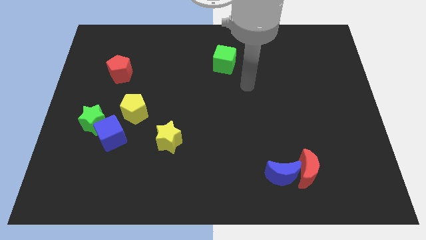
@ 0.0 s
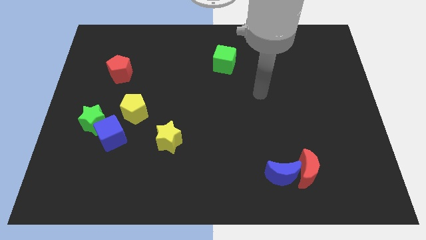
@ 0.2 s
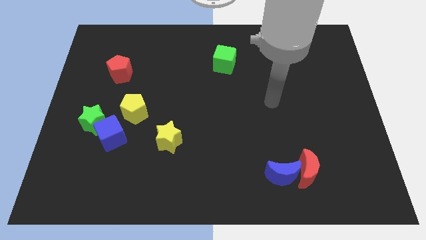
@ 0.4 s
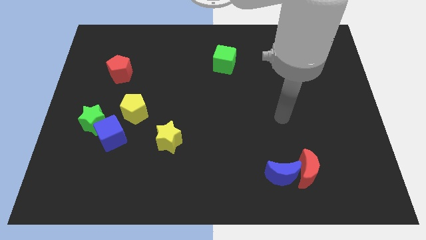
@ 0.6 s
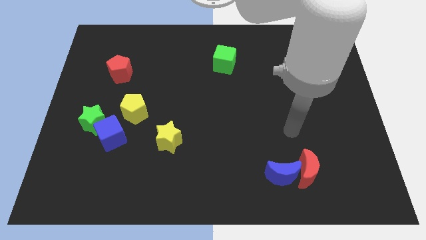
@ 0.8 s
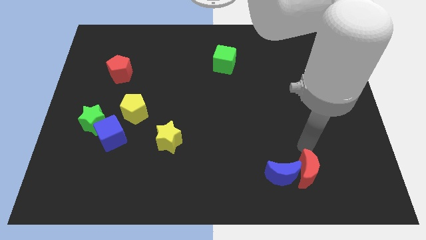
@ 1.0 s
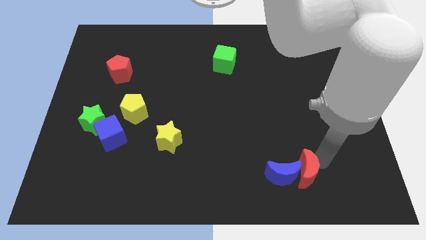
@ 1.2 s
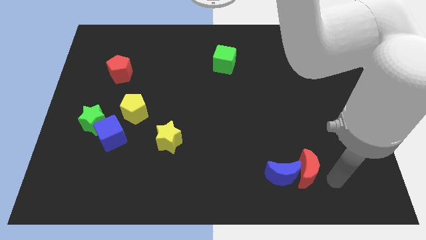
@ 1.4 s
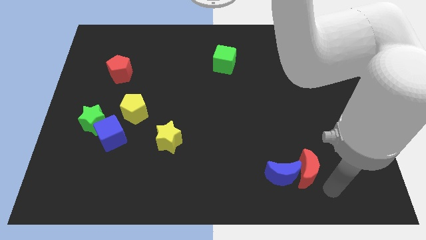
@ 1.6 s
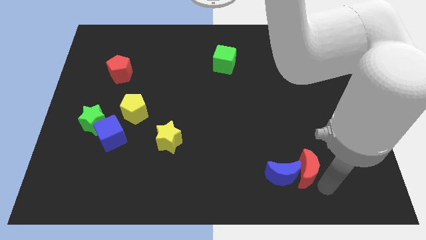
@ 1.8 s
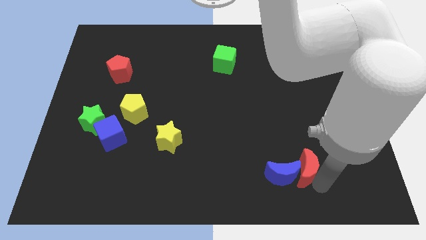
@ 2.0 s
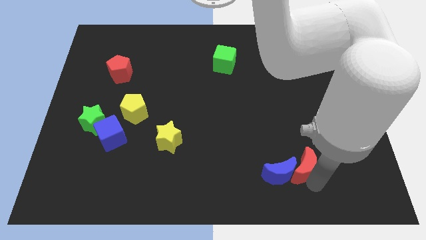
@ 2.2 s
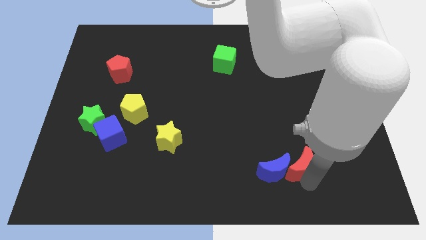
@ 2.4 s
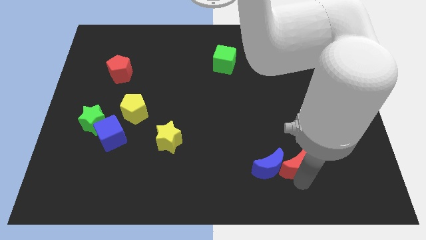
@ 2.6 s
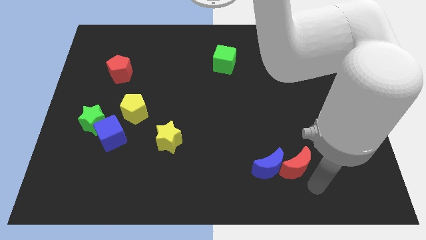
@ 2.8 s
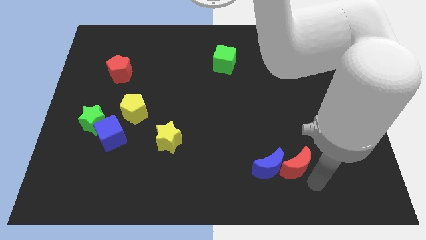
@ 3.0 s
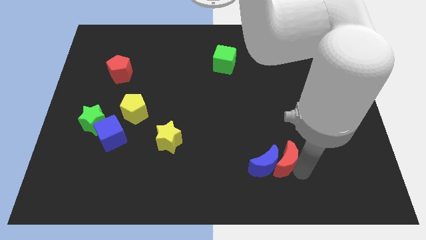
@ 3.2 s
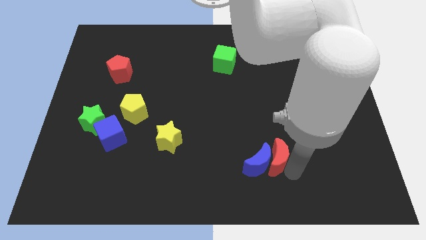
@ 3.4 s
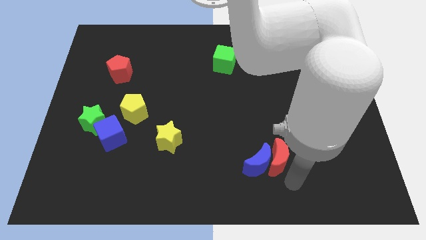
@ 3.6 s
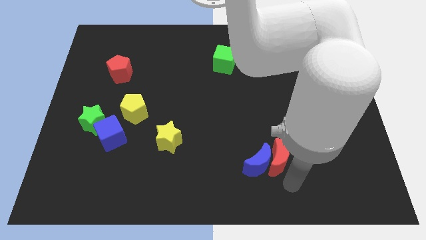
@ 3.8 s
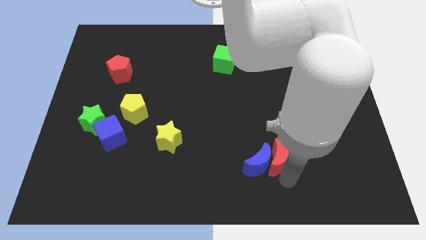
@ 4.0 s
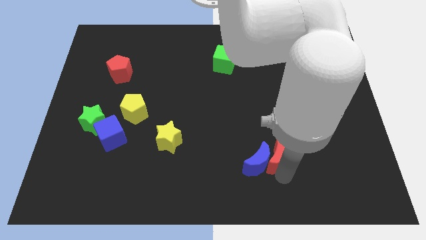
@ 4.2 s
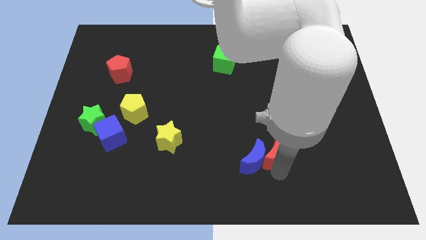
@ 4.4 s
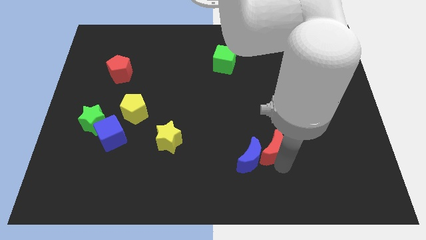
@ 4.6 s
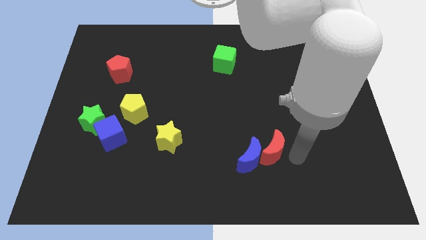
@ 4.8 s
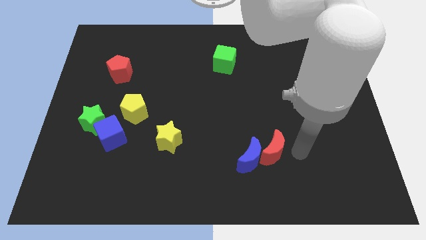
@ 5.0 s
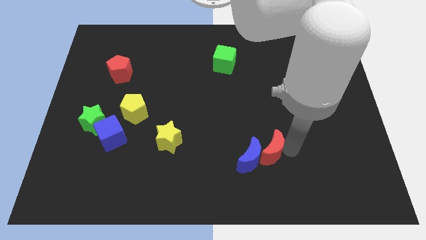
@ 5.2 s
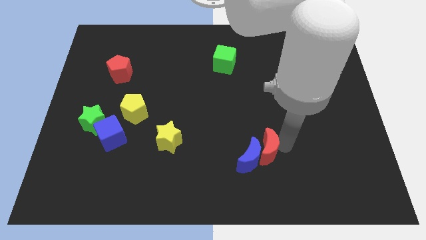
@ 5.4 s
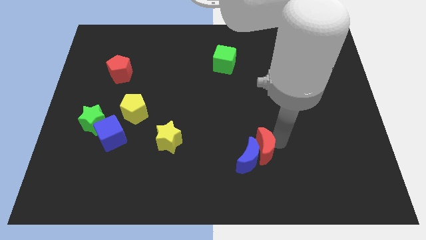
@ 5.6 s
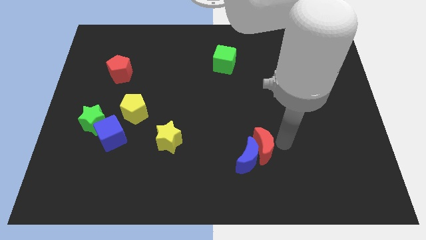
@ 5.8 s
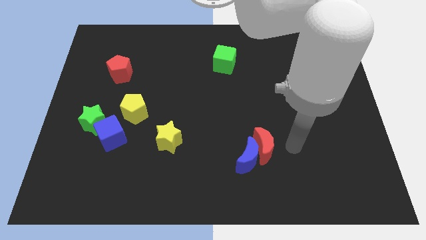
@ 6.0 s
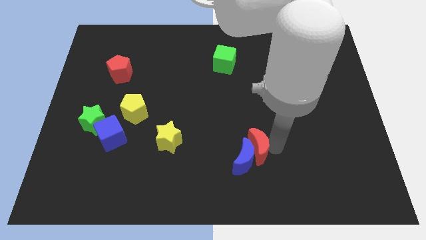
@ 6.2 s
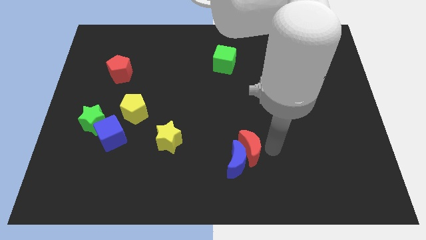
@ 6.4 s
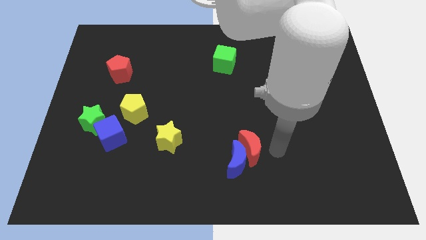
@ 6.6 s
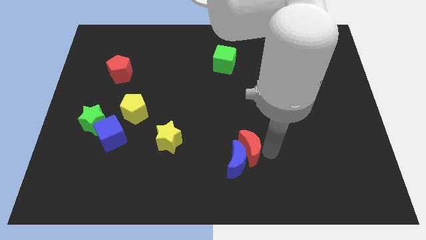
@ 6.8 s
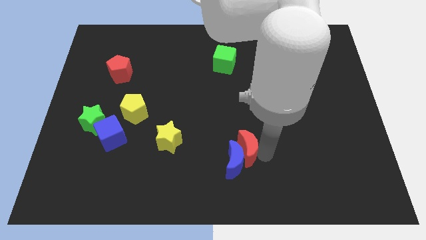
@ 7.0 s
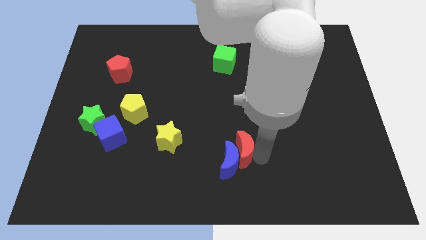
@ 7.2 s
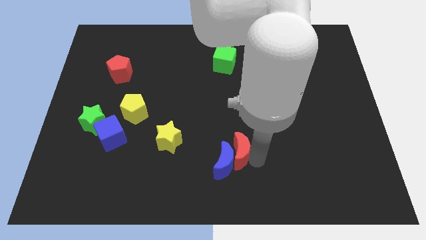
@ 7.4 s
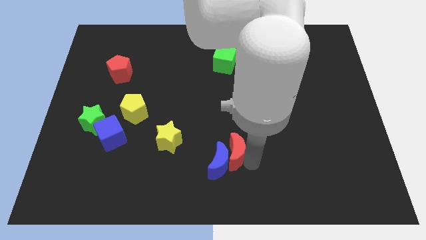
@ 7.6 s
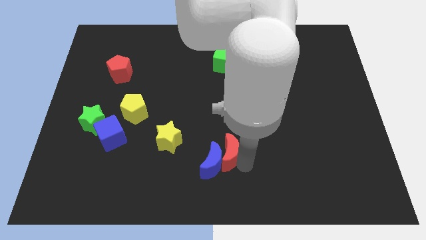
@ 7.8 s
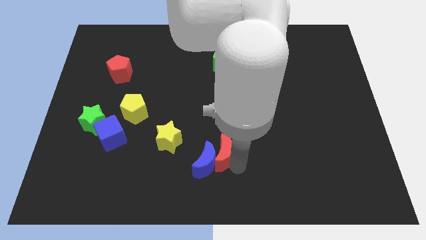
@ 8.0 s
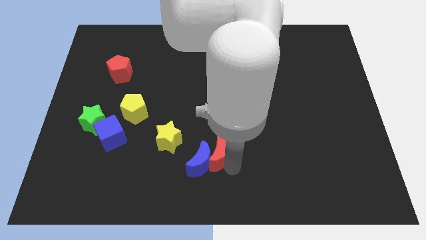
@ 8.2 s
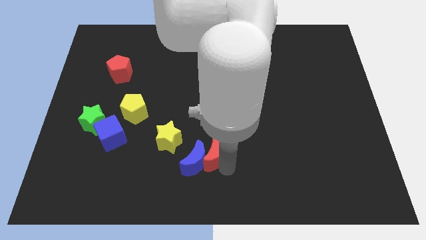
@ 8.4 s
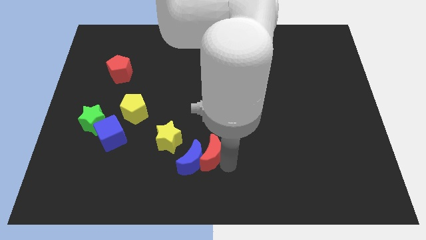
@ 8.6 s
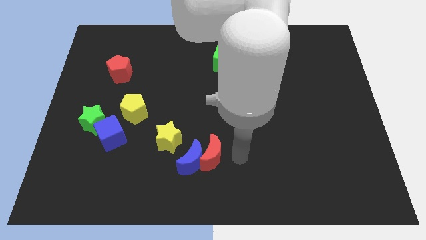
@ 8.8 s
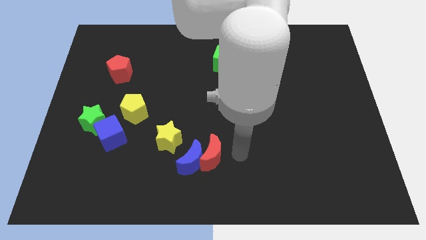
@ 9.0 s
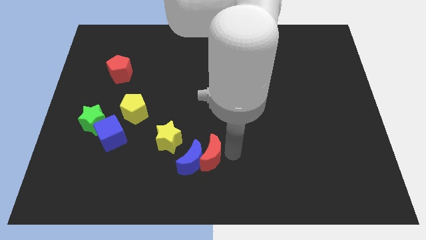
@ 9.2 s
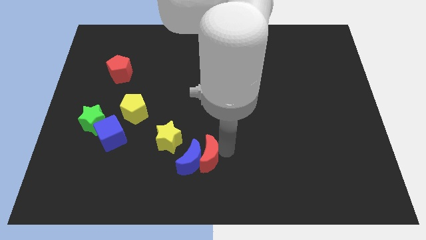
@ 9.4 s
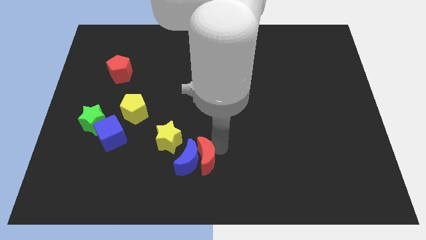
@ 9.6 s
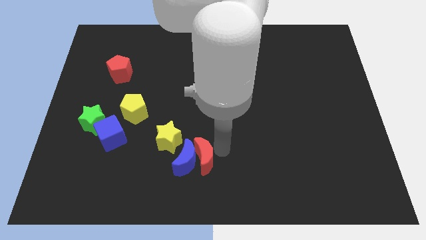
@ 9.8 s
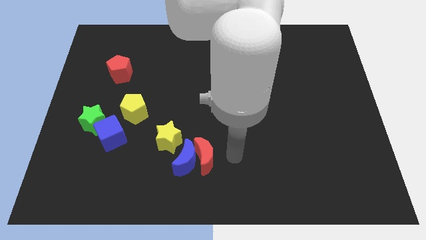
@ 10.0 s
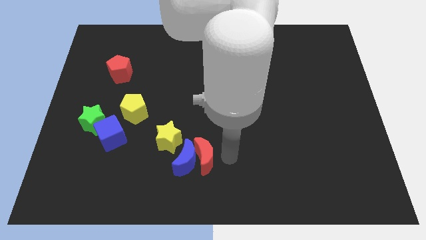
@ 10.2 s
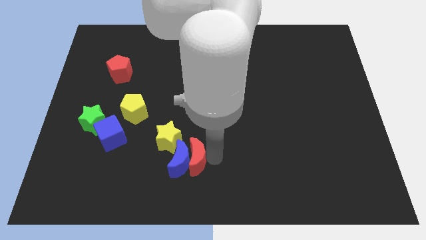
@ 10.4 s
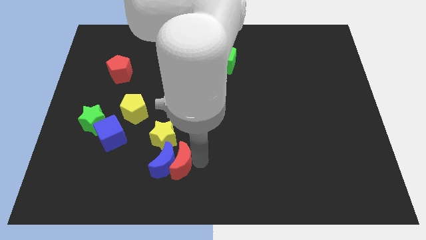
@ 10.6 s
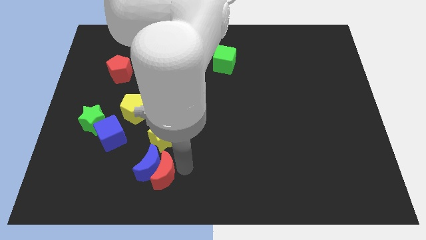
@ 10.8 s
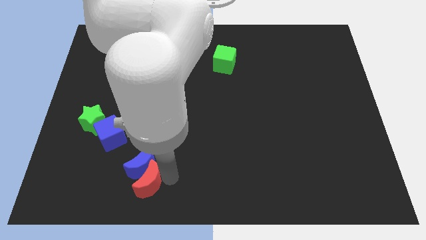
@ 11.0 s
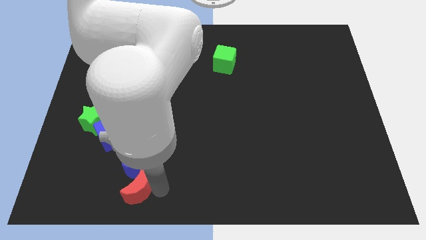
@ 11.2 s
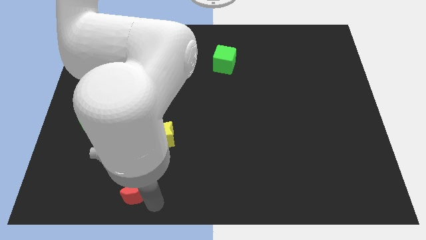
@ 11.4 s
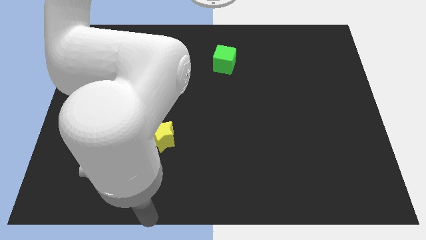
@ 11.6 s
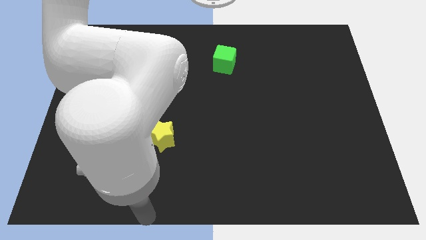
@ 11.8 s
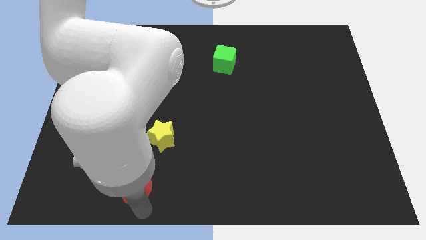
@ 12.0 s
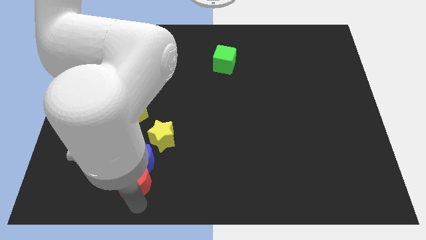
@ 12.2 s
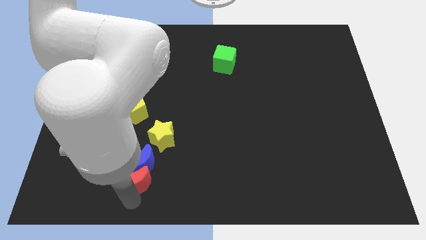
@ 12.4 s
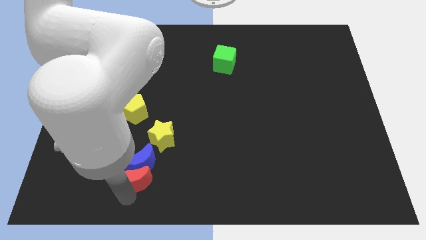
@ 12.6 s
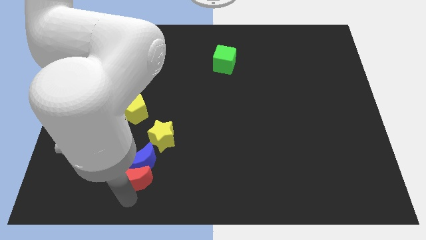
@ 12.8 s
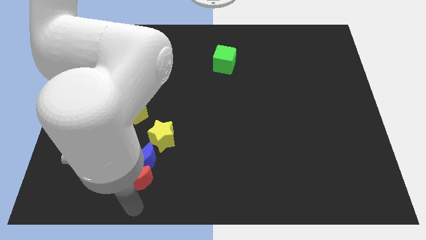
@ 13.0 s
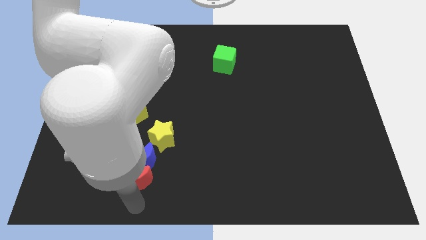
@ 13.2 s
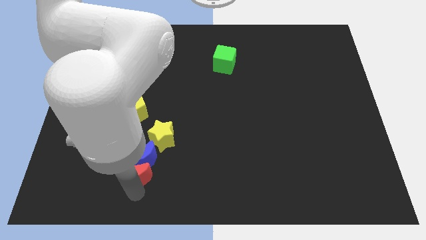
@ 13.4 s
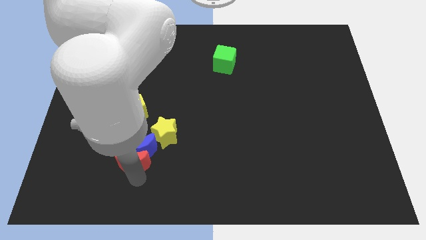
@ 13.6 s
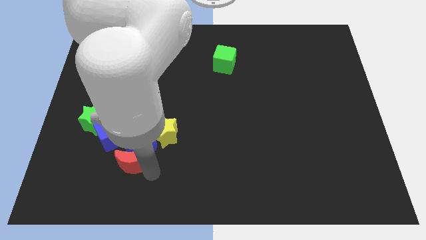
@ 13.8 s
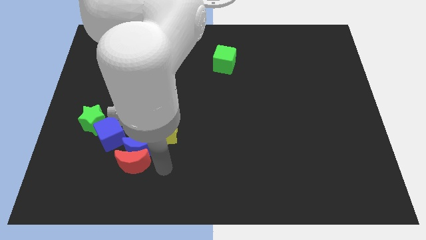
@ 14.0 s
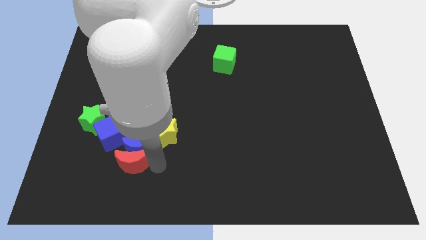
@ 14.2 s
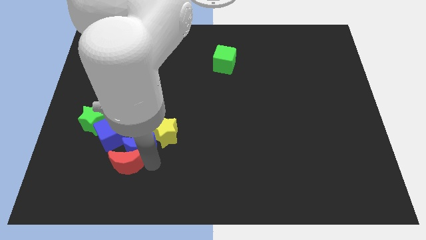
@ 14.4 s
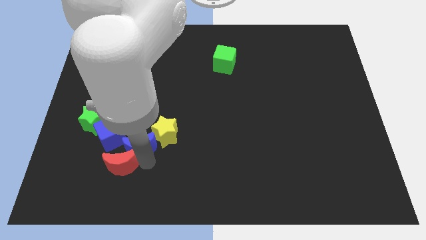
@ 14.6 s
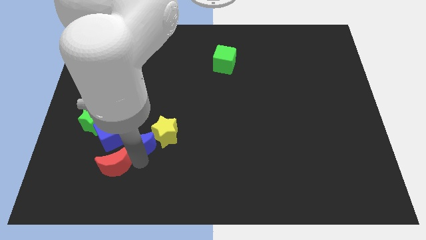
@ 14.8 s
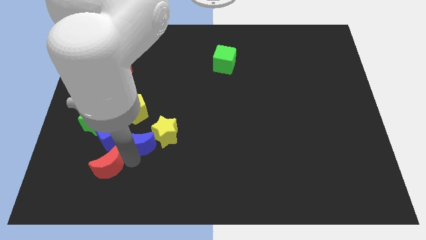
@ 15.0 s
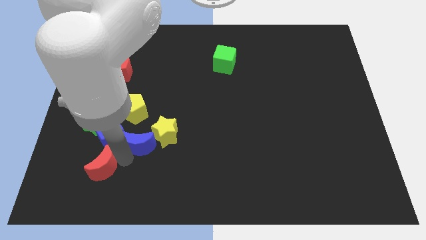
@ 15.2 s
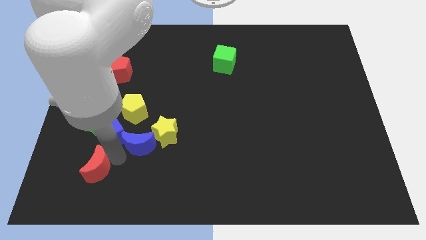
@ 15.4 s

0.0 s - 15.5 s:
slide the red moon to the bottom left side of the blue cube
